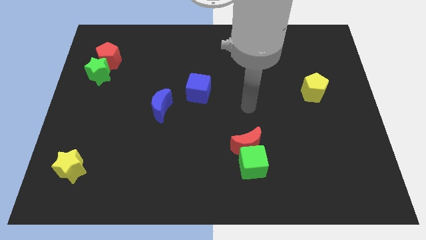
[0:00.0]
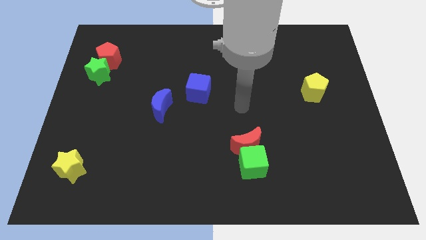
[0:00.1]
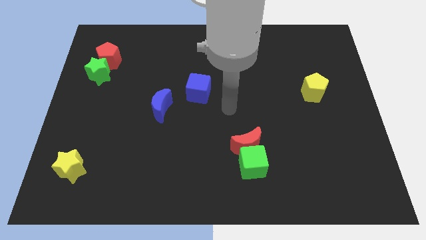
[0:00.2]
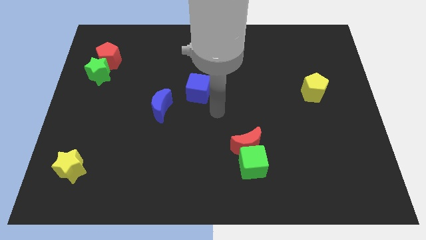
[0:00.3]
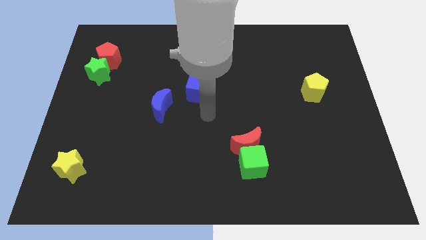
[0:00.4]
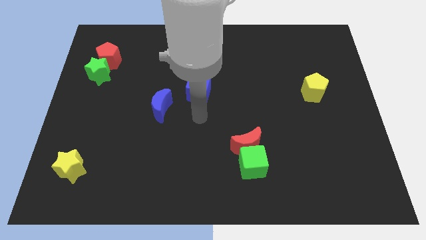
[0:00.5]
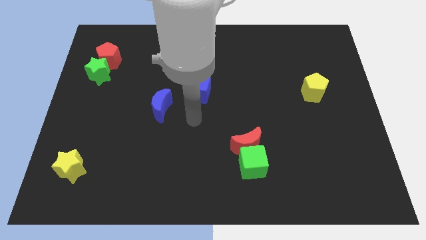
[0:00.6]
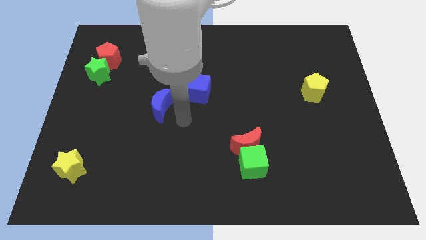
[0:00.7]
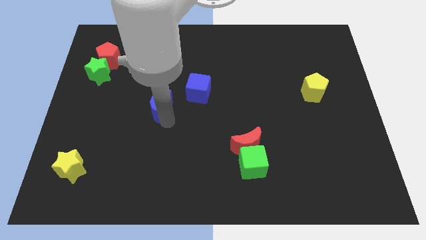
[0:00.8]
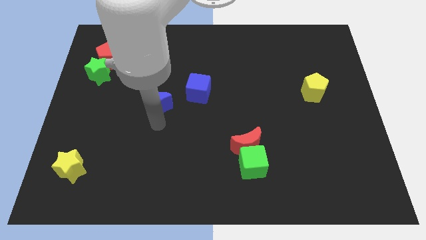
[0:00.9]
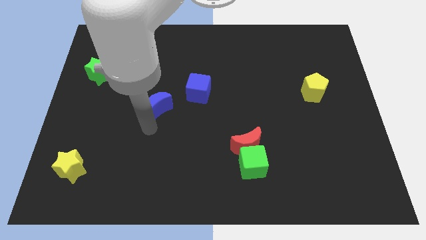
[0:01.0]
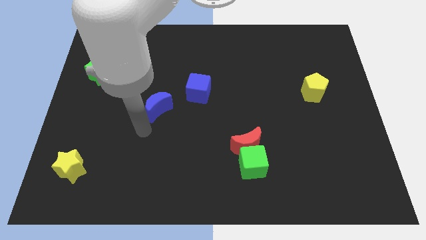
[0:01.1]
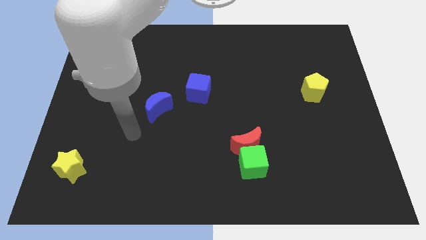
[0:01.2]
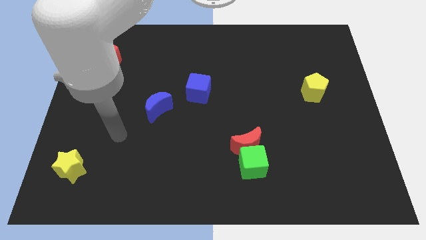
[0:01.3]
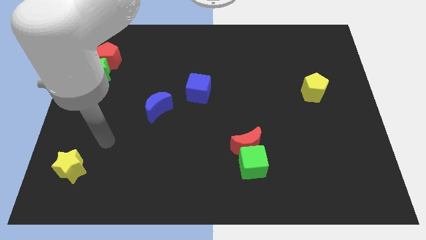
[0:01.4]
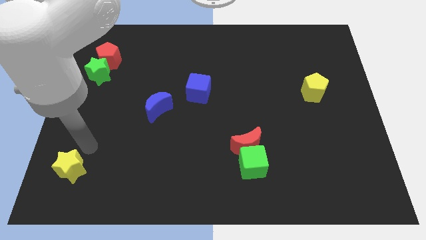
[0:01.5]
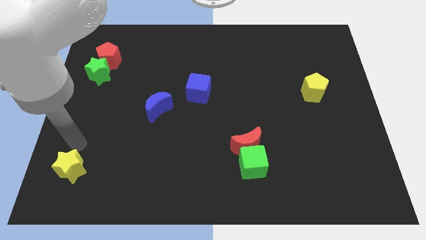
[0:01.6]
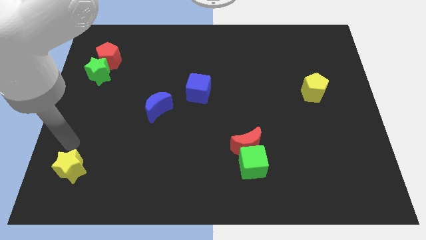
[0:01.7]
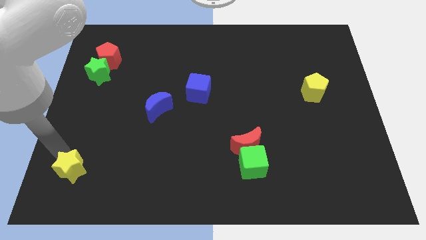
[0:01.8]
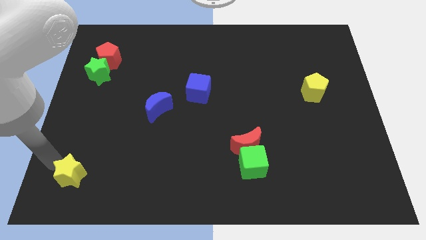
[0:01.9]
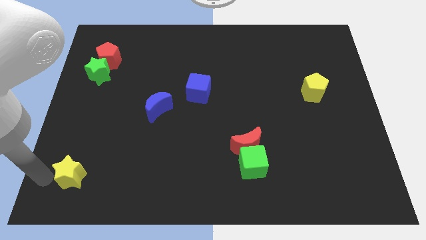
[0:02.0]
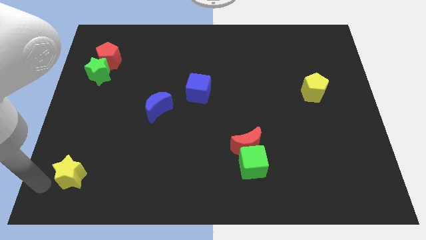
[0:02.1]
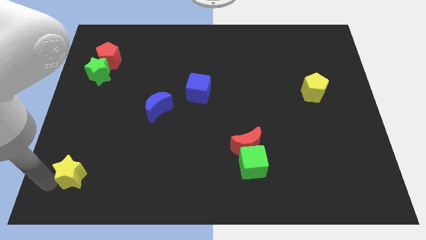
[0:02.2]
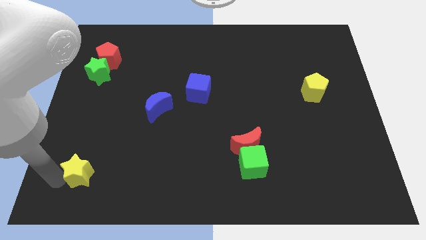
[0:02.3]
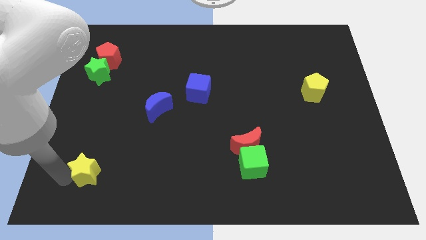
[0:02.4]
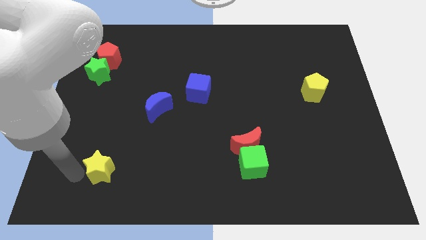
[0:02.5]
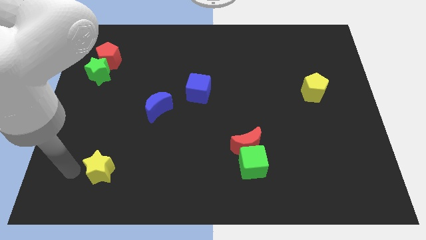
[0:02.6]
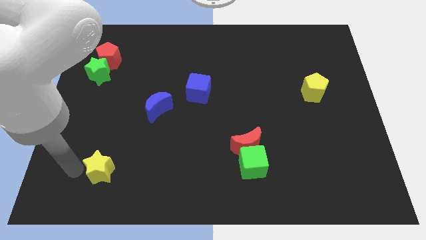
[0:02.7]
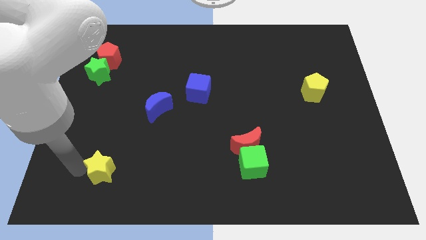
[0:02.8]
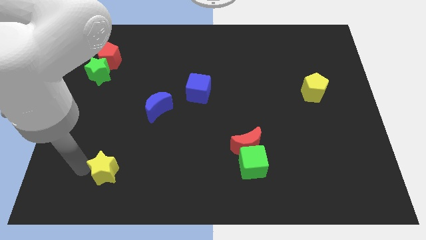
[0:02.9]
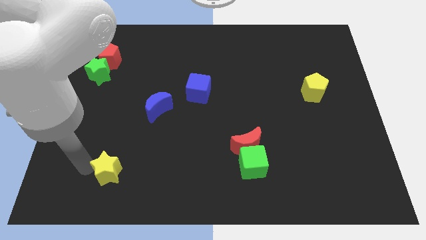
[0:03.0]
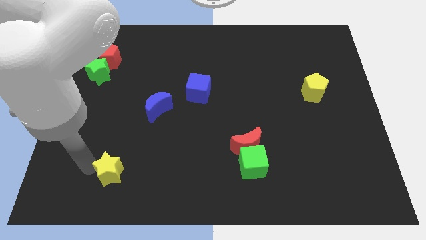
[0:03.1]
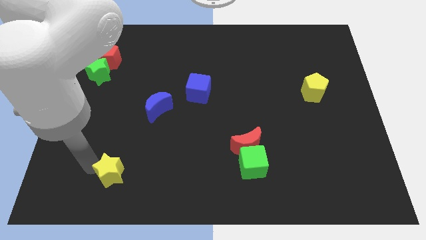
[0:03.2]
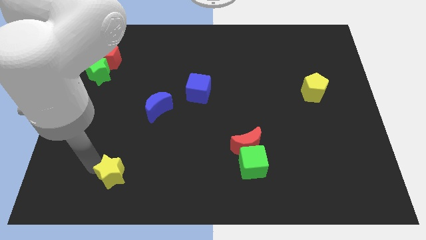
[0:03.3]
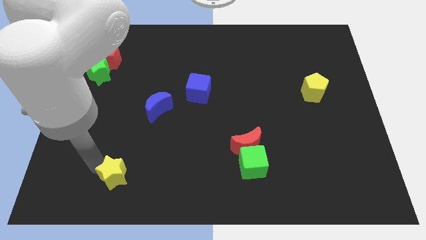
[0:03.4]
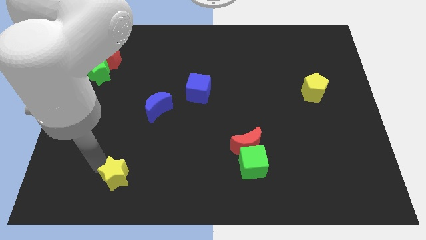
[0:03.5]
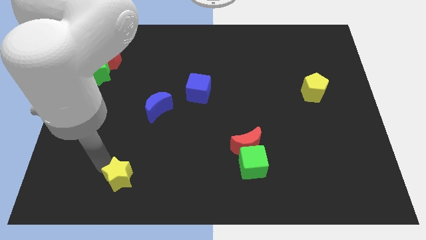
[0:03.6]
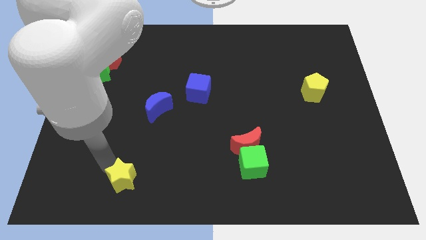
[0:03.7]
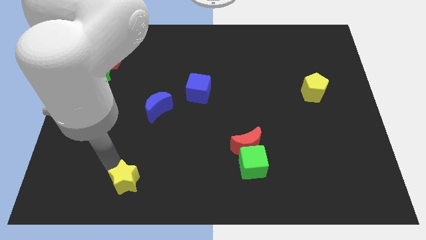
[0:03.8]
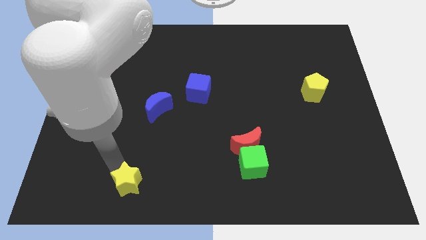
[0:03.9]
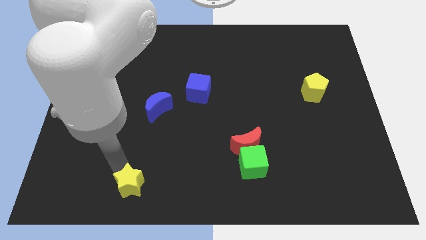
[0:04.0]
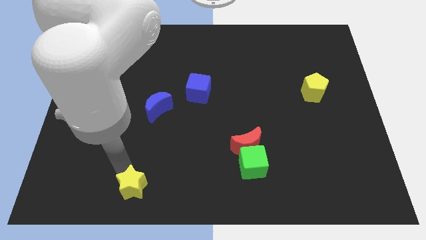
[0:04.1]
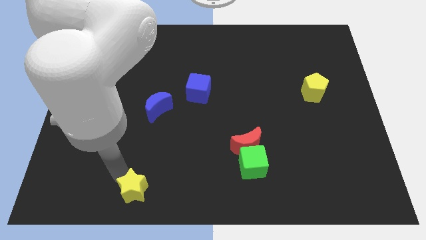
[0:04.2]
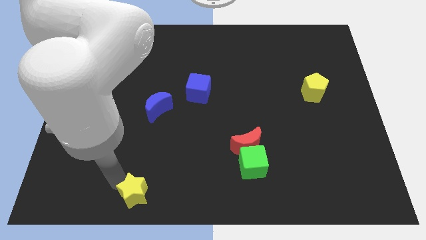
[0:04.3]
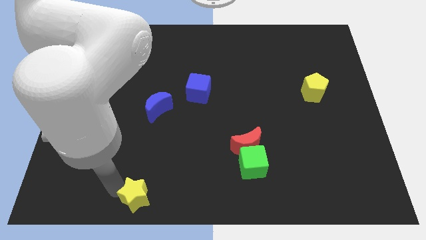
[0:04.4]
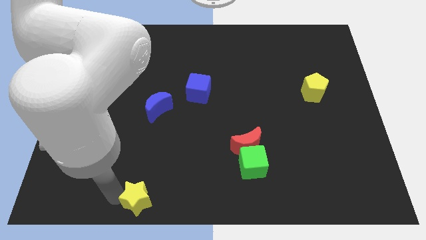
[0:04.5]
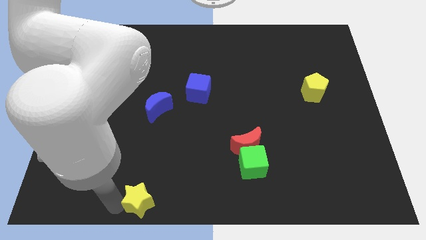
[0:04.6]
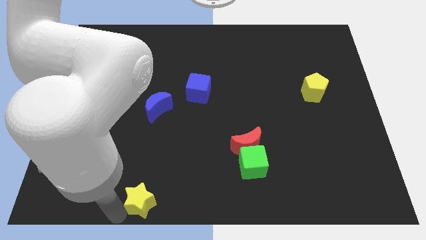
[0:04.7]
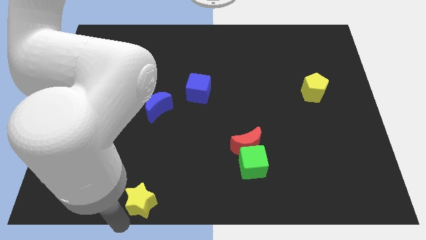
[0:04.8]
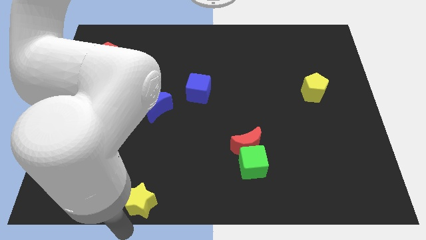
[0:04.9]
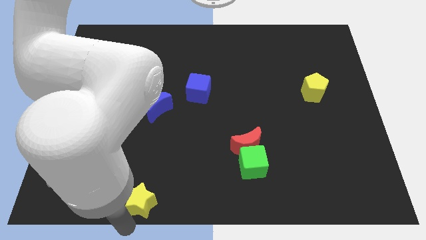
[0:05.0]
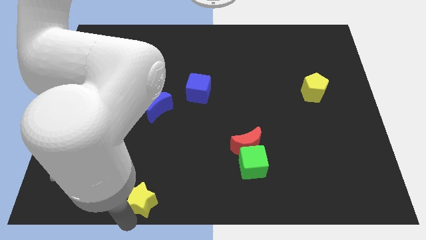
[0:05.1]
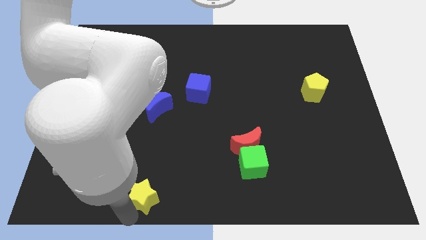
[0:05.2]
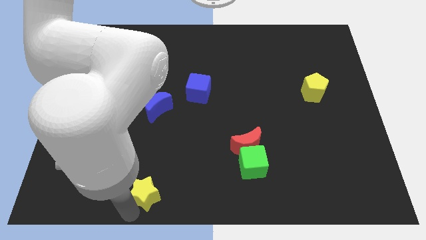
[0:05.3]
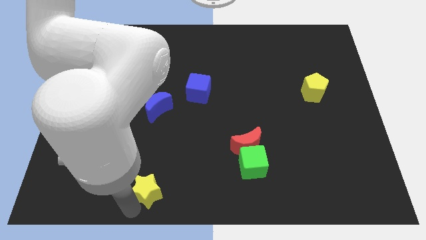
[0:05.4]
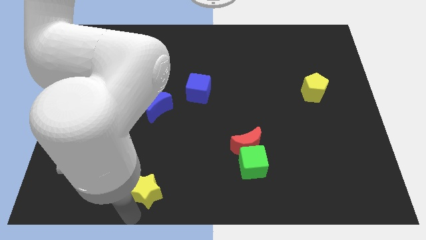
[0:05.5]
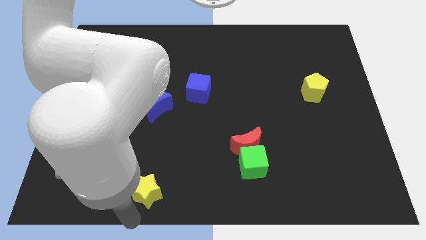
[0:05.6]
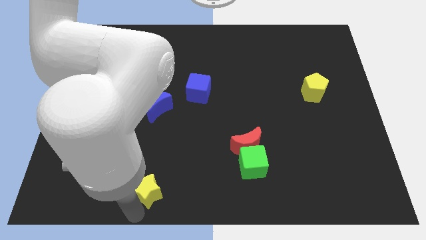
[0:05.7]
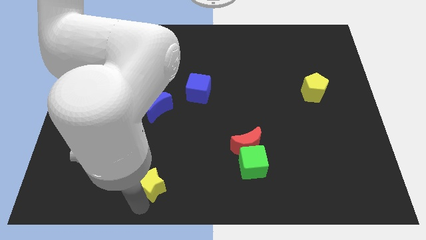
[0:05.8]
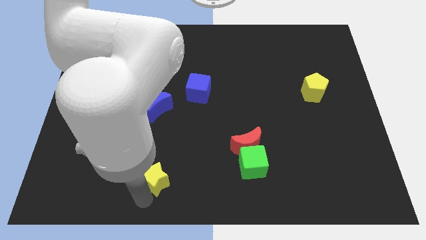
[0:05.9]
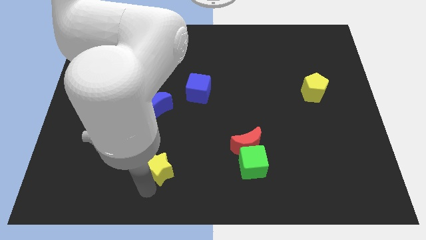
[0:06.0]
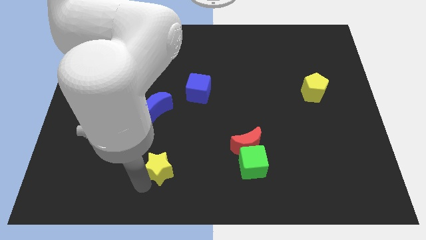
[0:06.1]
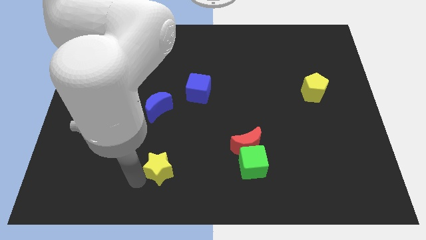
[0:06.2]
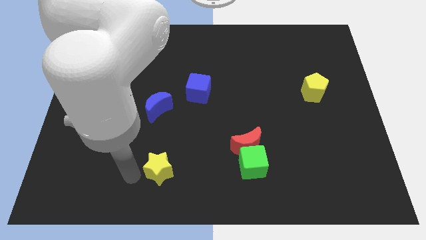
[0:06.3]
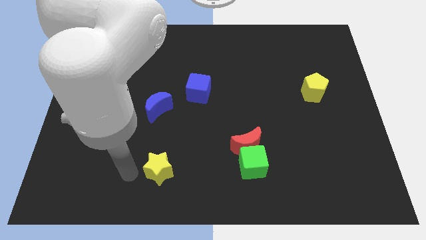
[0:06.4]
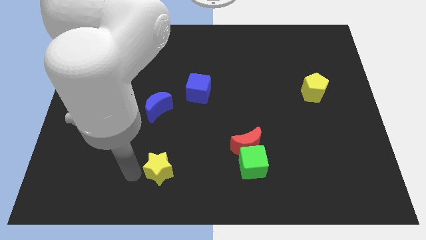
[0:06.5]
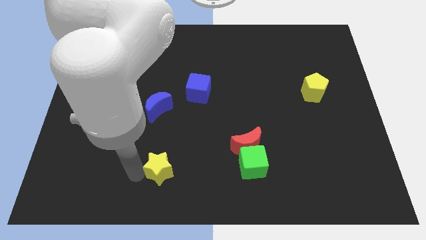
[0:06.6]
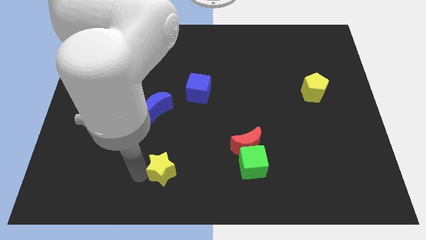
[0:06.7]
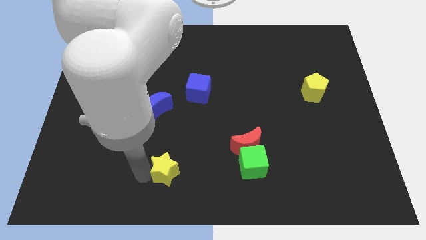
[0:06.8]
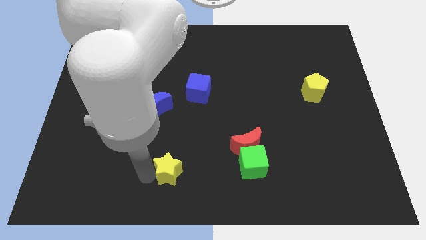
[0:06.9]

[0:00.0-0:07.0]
push the yellow star to the right

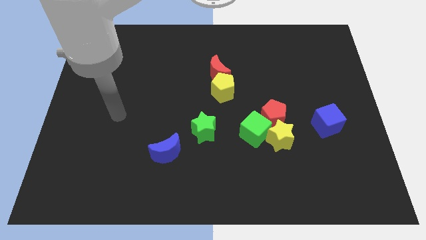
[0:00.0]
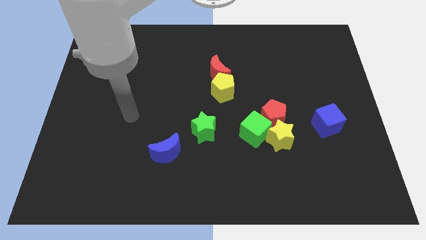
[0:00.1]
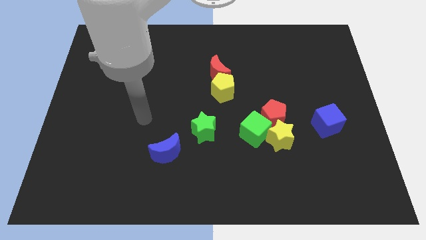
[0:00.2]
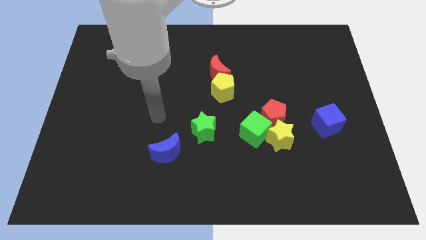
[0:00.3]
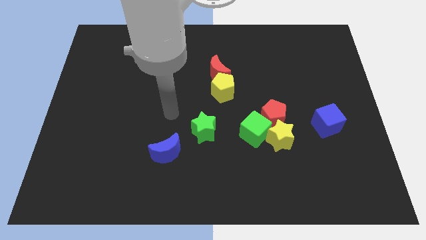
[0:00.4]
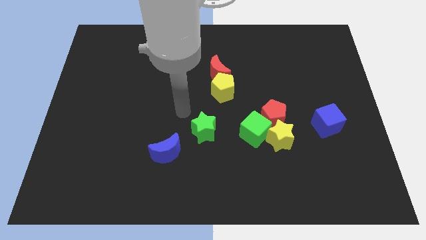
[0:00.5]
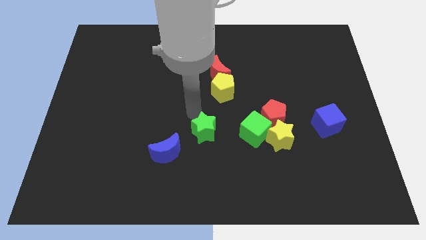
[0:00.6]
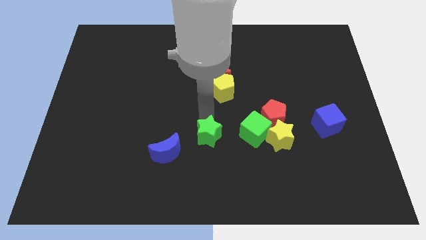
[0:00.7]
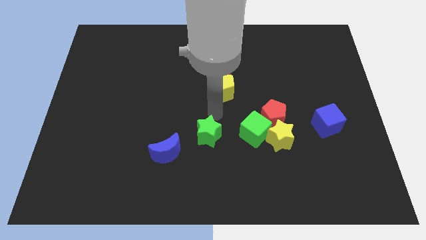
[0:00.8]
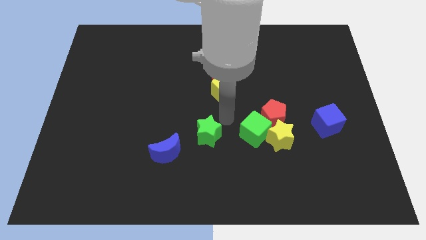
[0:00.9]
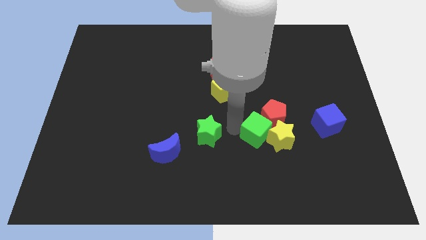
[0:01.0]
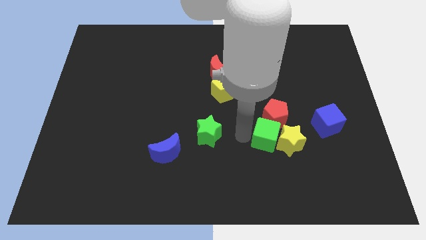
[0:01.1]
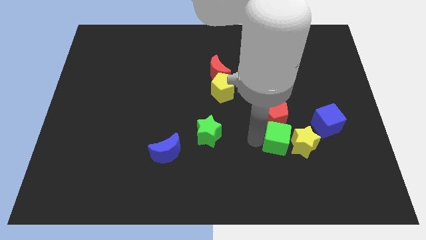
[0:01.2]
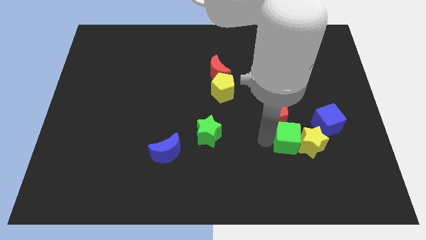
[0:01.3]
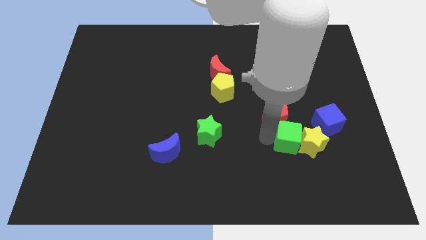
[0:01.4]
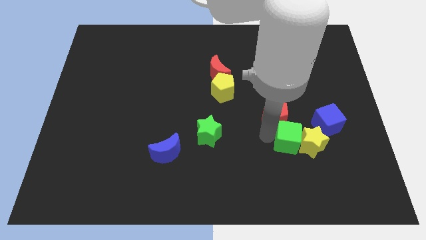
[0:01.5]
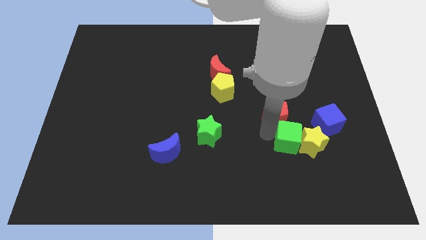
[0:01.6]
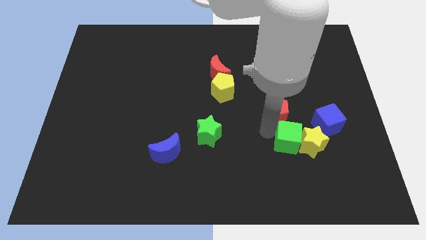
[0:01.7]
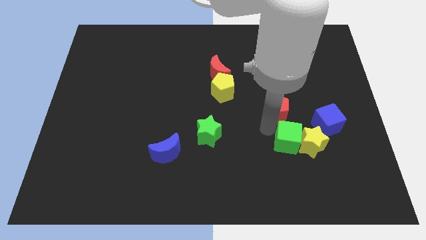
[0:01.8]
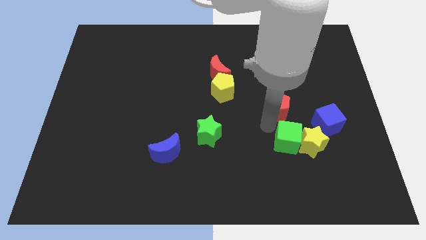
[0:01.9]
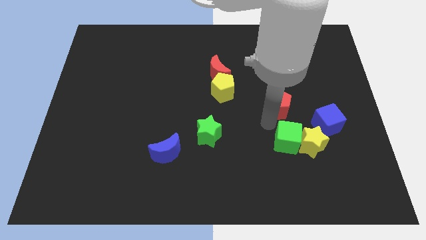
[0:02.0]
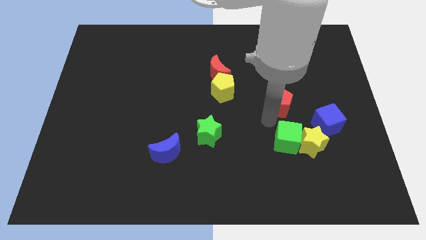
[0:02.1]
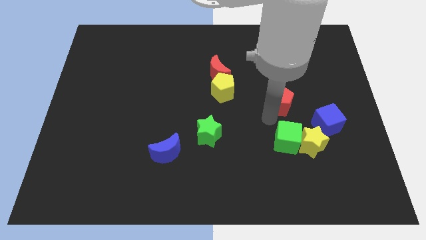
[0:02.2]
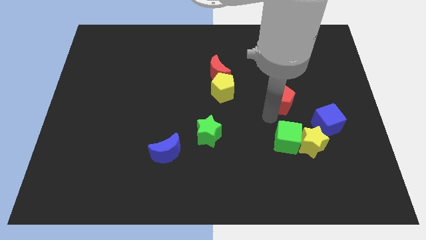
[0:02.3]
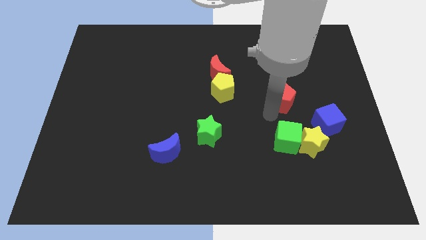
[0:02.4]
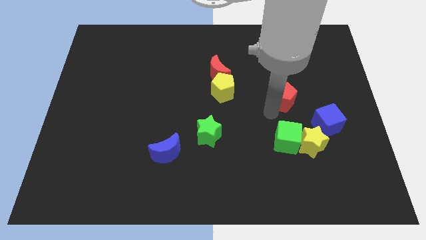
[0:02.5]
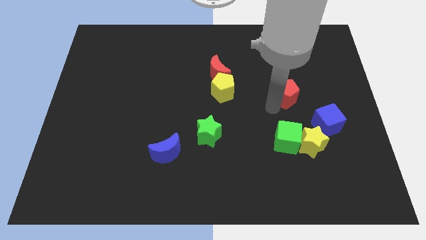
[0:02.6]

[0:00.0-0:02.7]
move the red pentagon a bit upwards and then to the right
